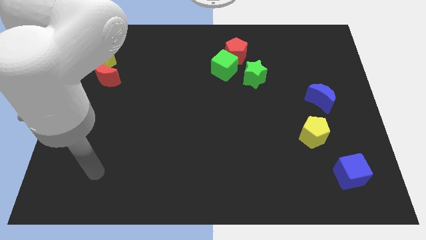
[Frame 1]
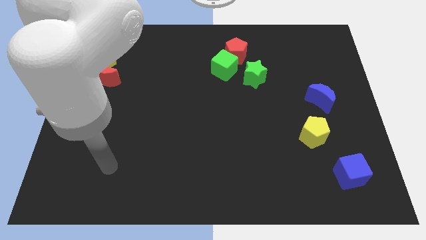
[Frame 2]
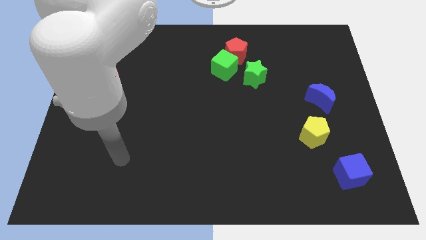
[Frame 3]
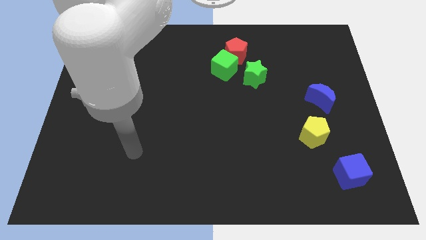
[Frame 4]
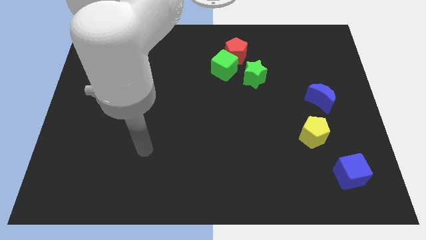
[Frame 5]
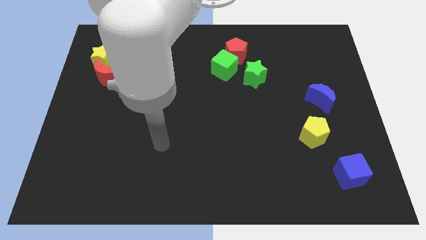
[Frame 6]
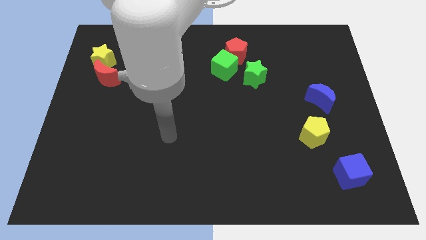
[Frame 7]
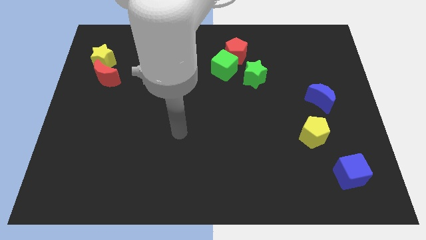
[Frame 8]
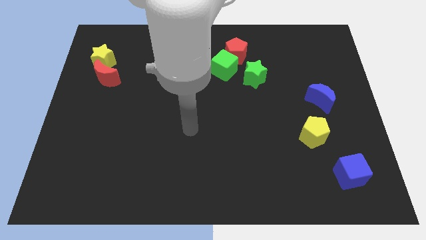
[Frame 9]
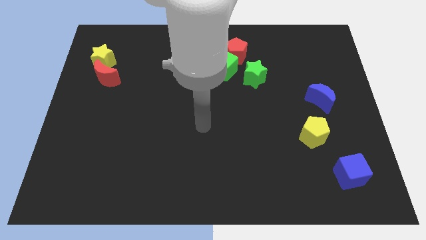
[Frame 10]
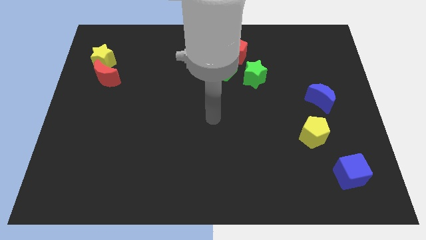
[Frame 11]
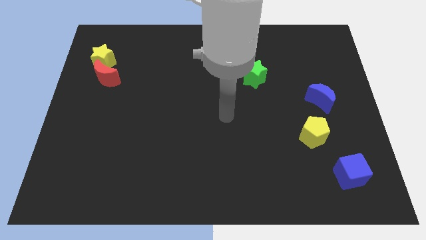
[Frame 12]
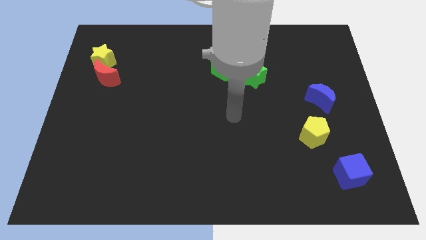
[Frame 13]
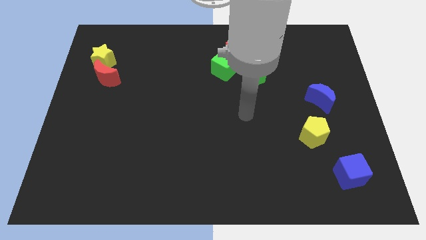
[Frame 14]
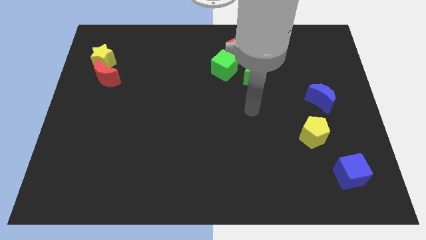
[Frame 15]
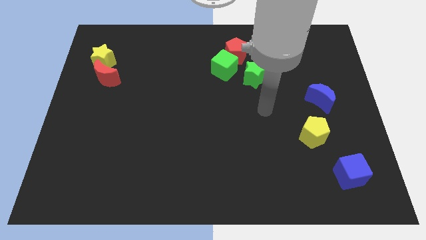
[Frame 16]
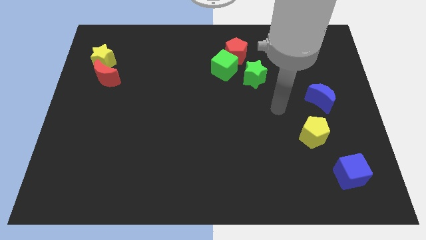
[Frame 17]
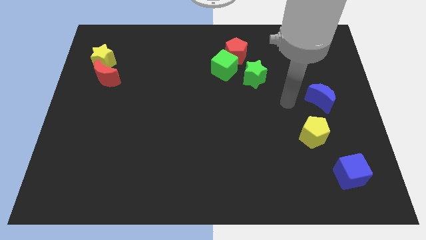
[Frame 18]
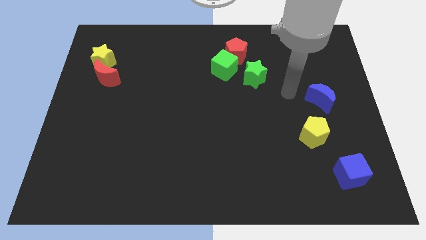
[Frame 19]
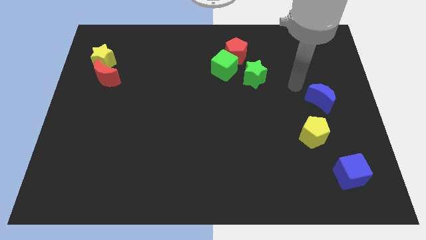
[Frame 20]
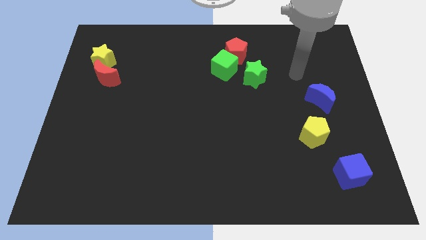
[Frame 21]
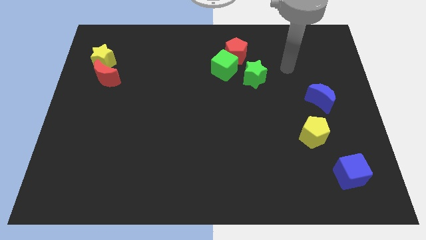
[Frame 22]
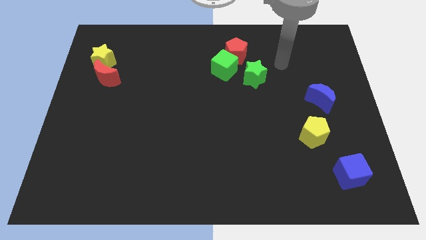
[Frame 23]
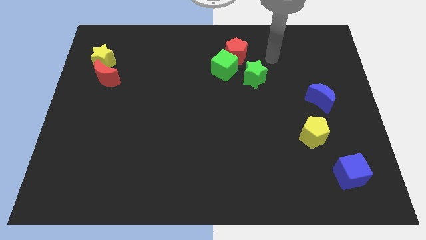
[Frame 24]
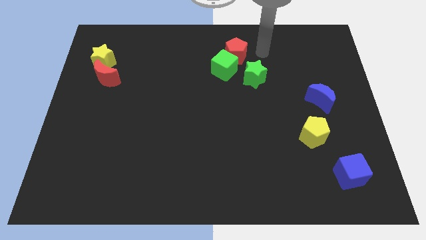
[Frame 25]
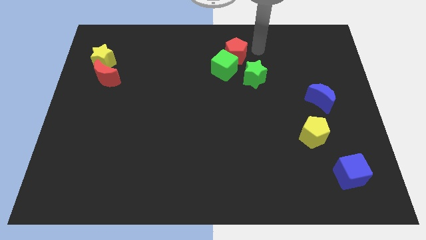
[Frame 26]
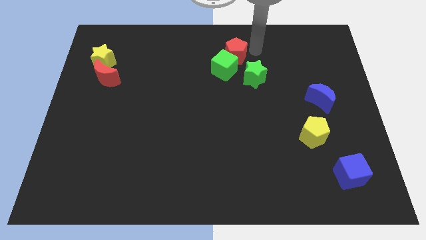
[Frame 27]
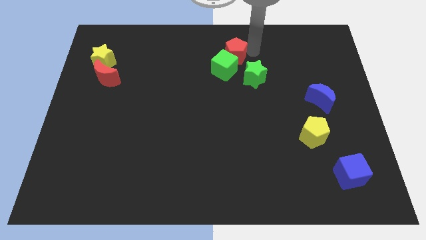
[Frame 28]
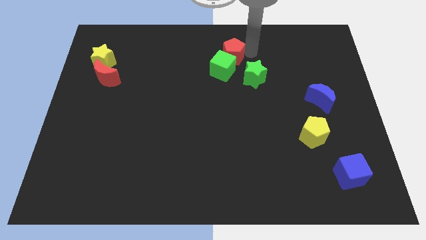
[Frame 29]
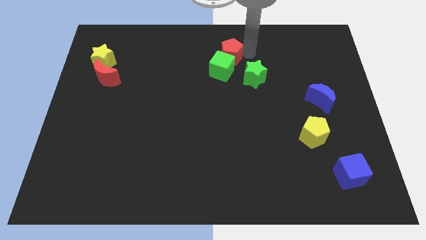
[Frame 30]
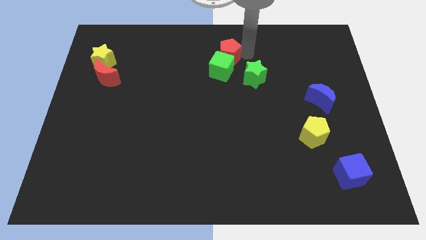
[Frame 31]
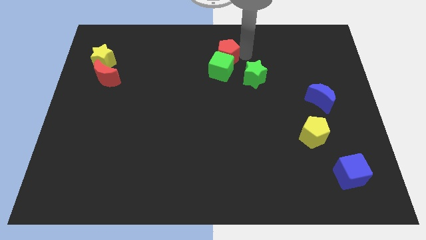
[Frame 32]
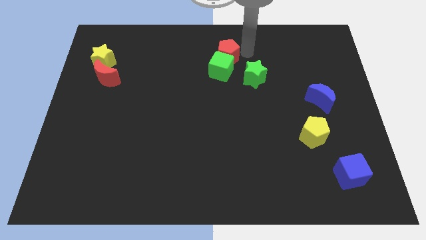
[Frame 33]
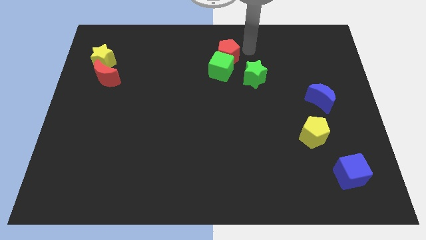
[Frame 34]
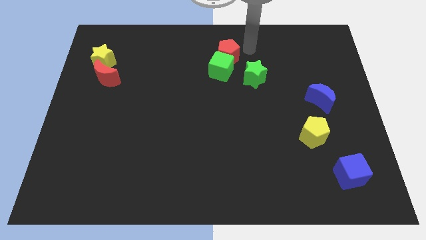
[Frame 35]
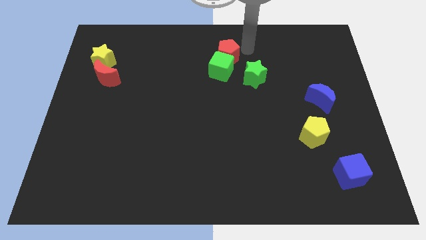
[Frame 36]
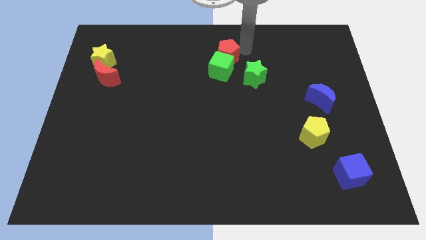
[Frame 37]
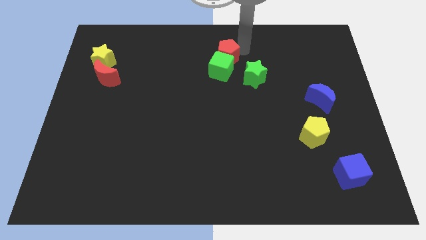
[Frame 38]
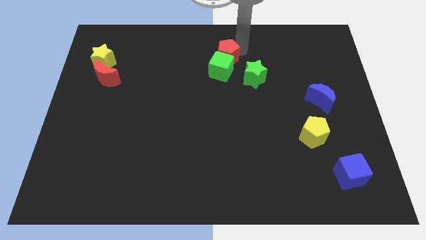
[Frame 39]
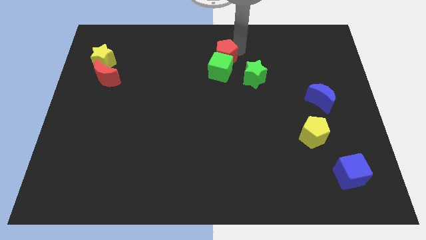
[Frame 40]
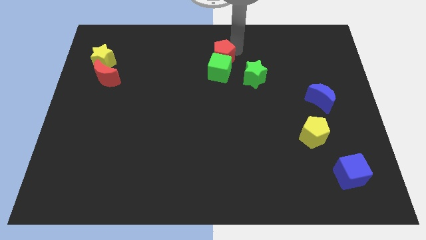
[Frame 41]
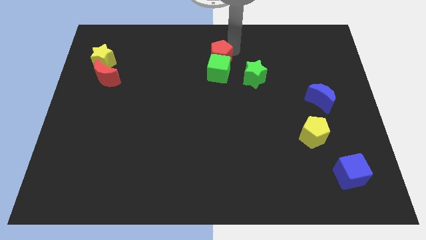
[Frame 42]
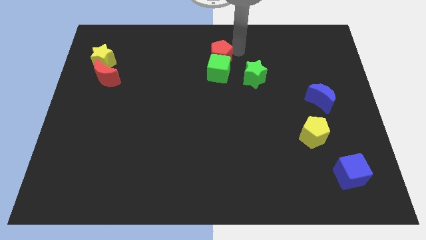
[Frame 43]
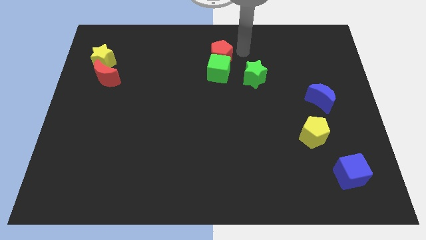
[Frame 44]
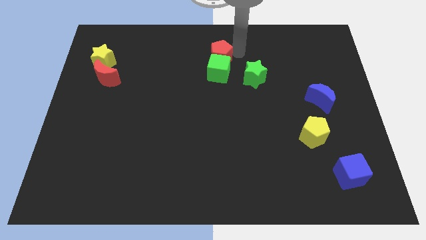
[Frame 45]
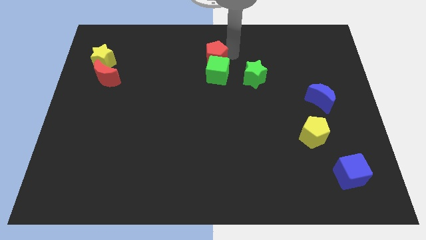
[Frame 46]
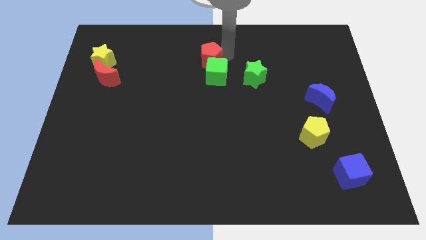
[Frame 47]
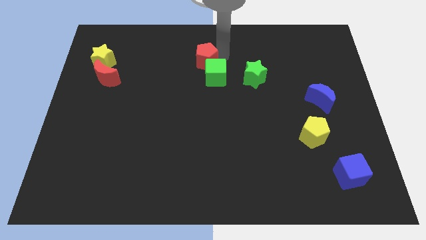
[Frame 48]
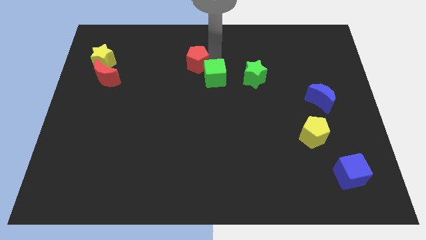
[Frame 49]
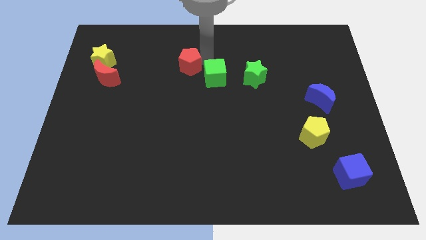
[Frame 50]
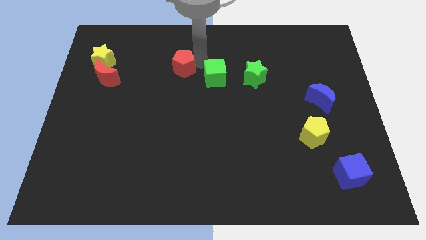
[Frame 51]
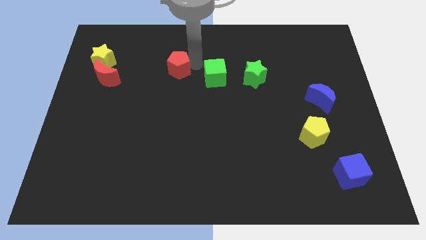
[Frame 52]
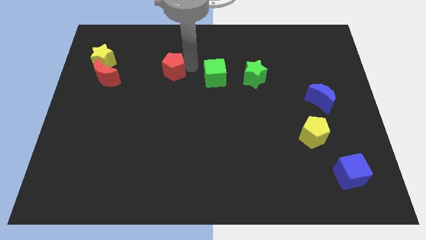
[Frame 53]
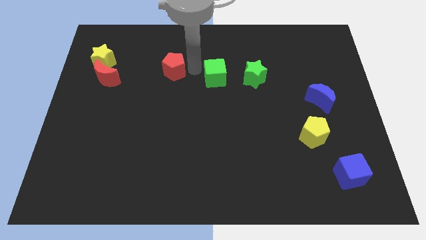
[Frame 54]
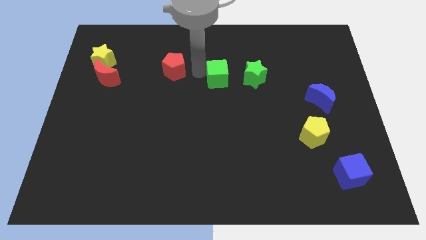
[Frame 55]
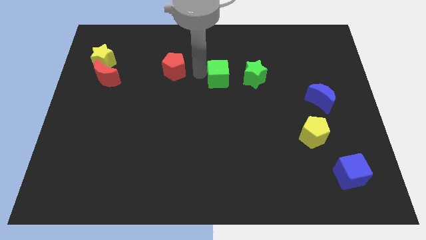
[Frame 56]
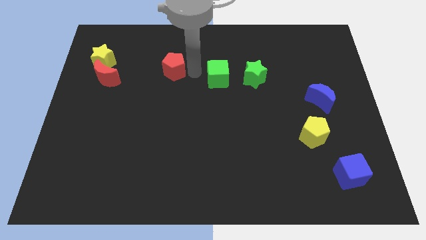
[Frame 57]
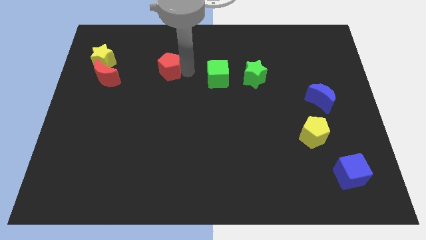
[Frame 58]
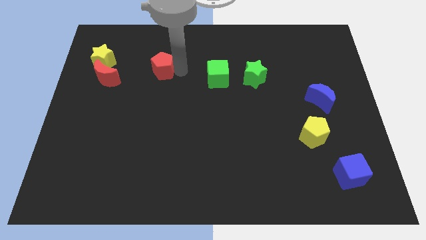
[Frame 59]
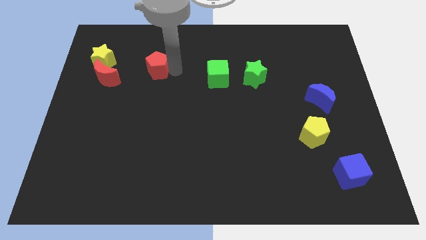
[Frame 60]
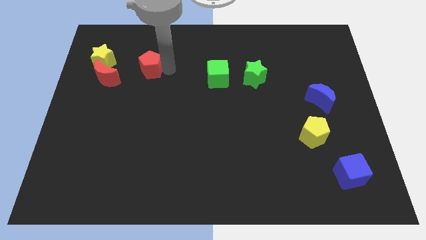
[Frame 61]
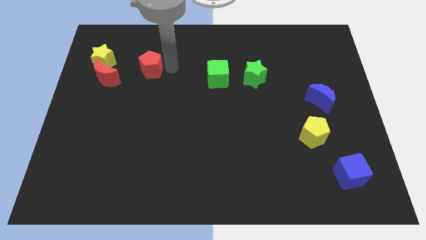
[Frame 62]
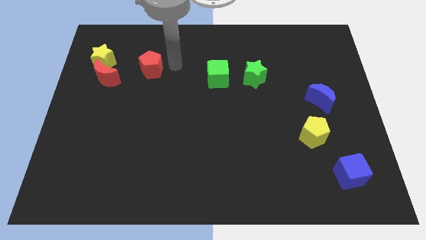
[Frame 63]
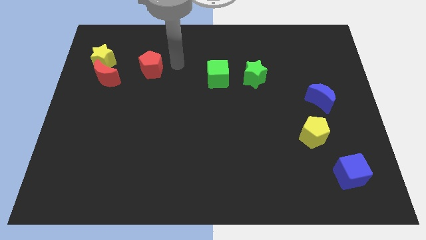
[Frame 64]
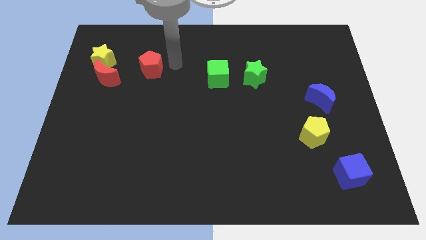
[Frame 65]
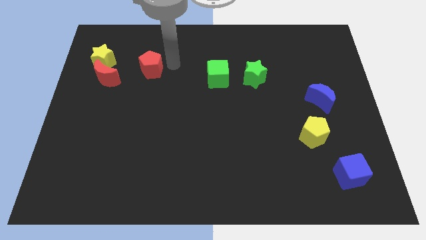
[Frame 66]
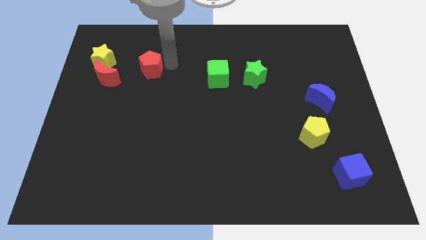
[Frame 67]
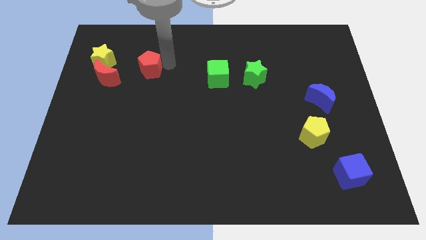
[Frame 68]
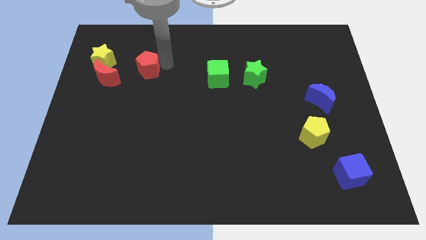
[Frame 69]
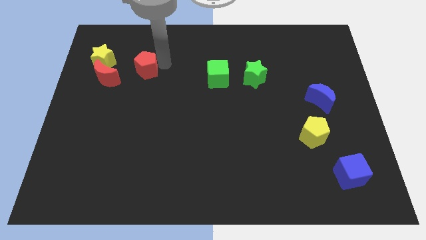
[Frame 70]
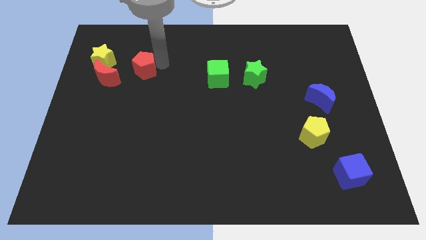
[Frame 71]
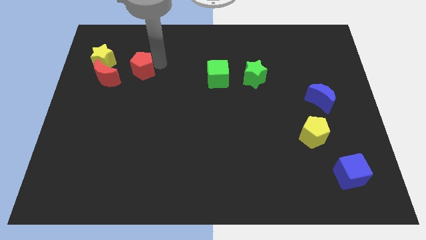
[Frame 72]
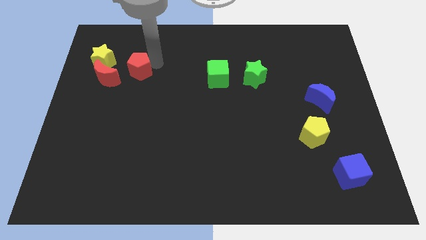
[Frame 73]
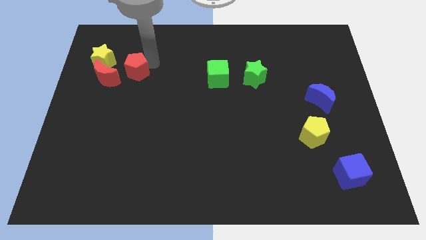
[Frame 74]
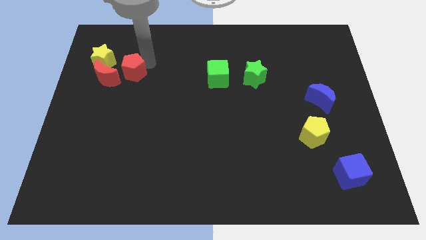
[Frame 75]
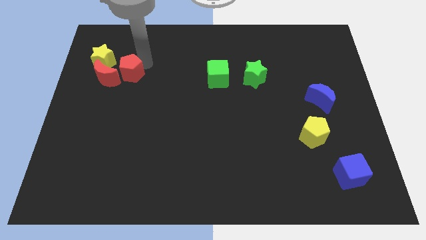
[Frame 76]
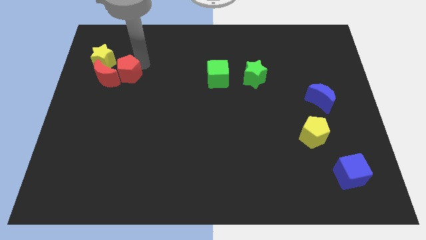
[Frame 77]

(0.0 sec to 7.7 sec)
push the red pentagon close to the red moon
